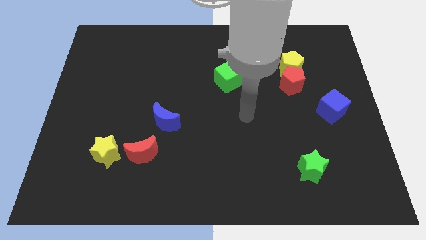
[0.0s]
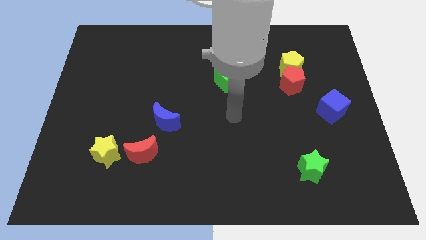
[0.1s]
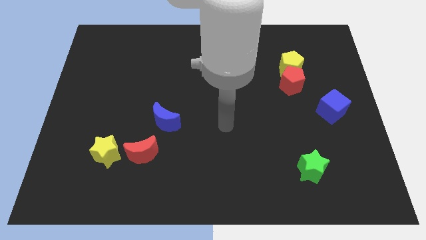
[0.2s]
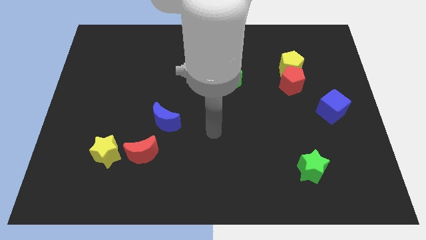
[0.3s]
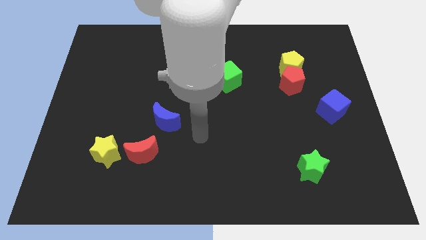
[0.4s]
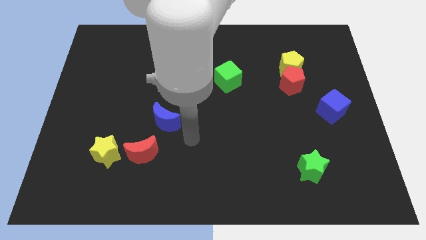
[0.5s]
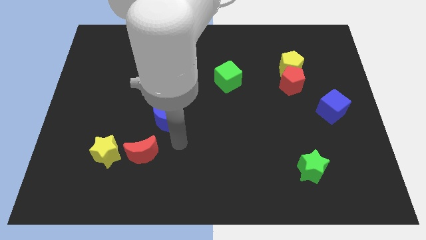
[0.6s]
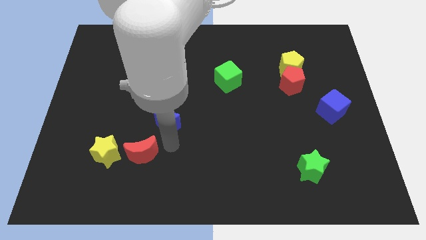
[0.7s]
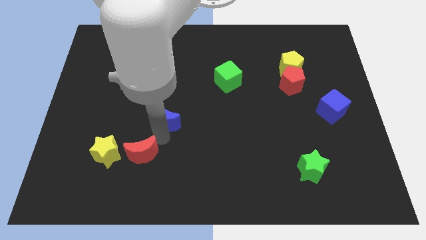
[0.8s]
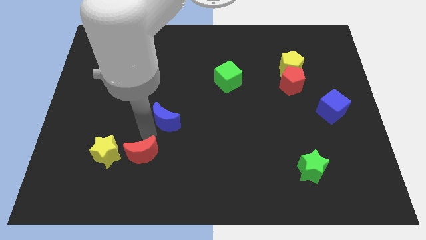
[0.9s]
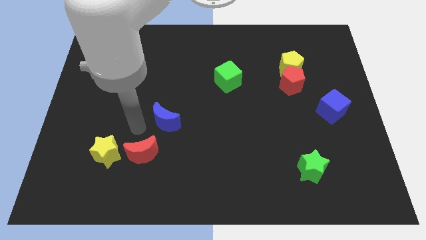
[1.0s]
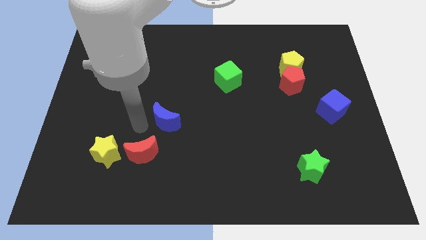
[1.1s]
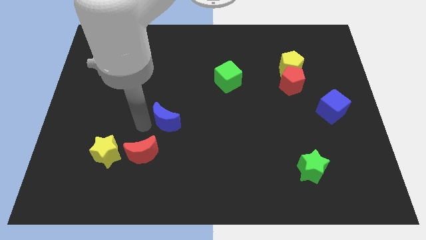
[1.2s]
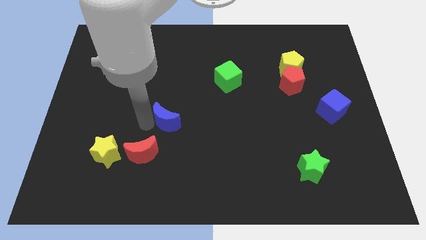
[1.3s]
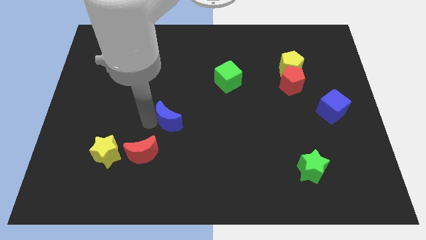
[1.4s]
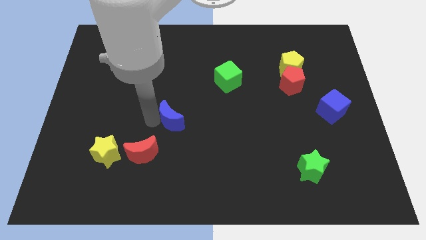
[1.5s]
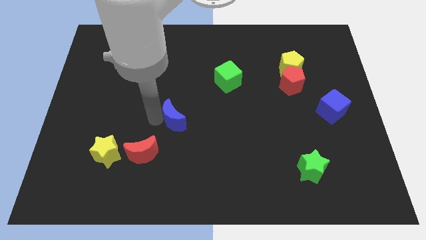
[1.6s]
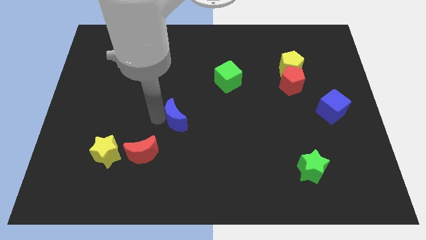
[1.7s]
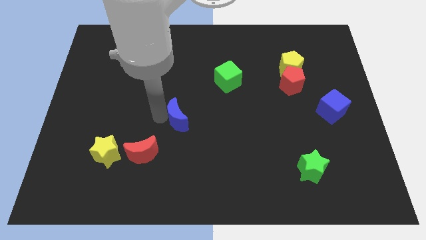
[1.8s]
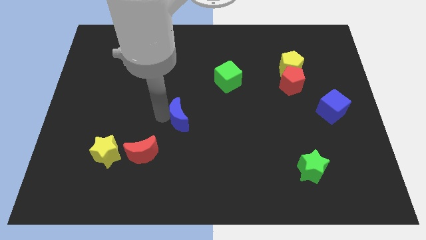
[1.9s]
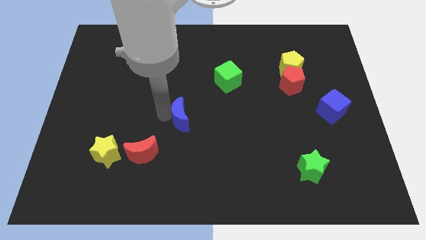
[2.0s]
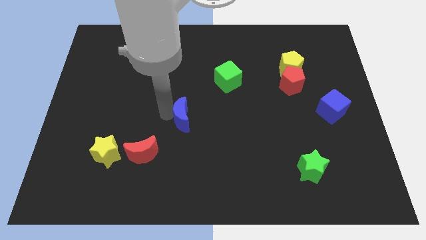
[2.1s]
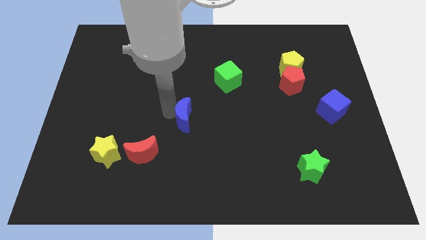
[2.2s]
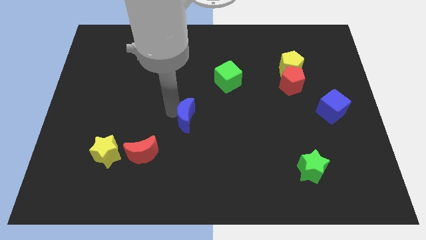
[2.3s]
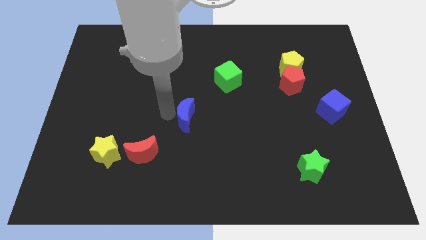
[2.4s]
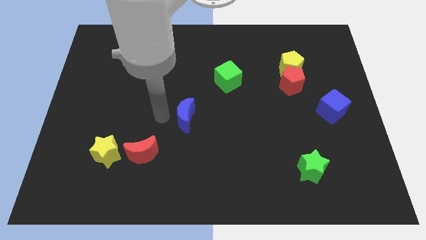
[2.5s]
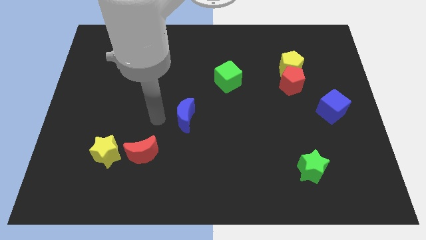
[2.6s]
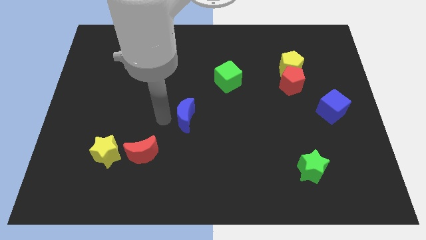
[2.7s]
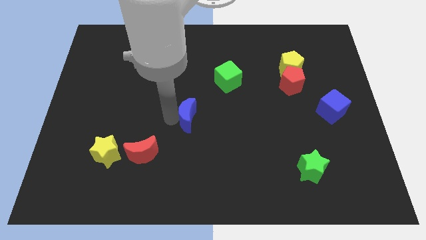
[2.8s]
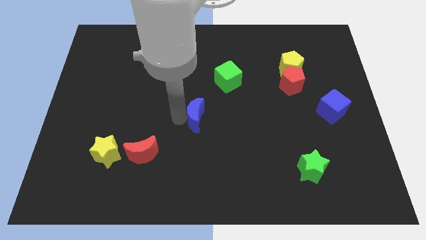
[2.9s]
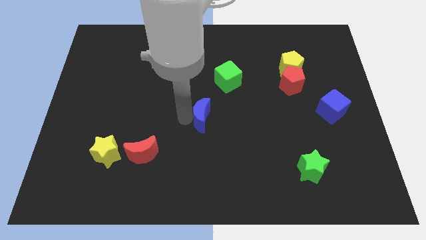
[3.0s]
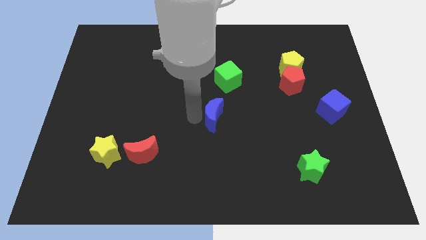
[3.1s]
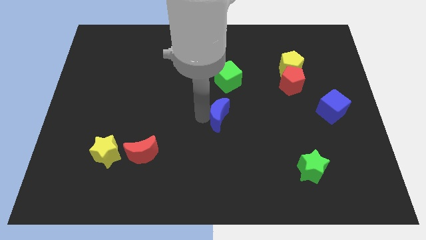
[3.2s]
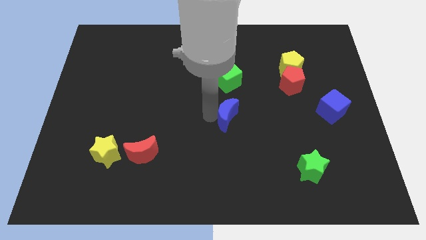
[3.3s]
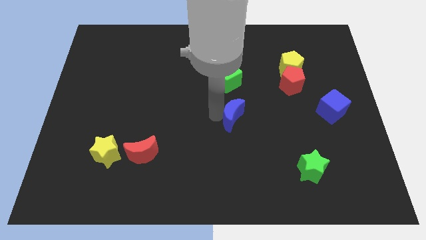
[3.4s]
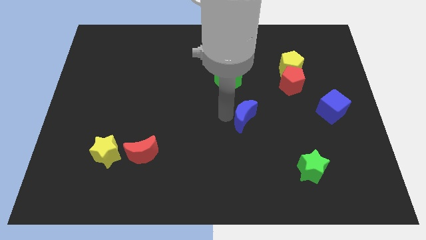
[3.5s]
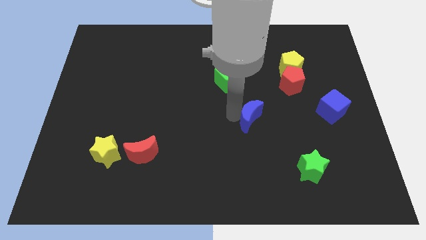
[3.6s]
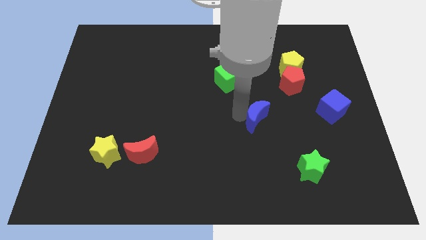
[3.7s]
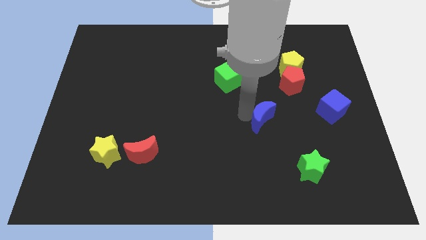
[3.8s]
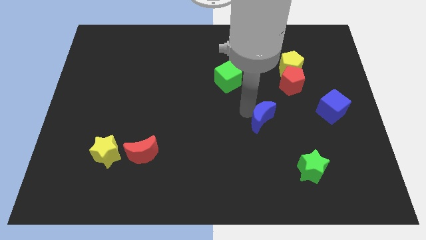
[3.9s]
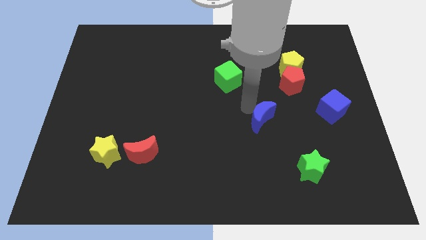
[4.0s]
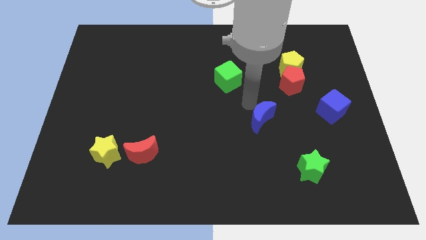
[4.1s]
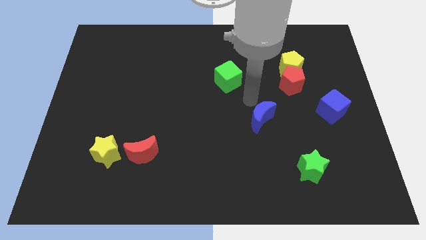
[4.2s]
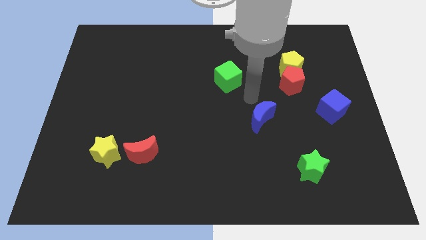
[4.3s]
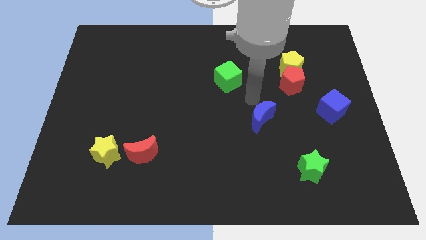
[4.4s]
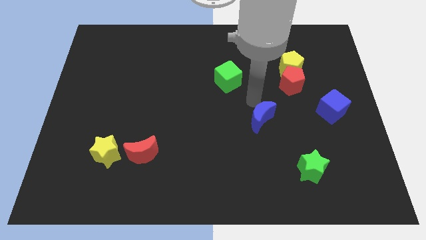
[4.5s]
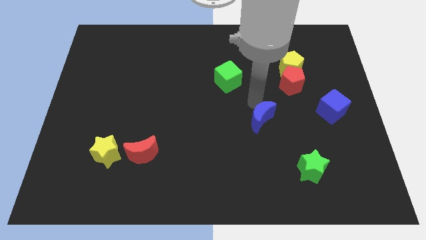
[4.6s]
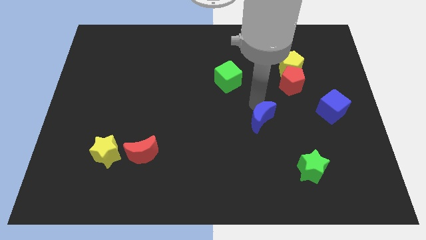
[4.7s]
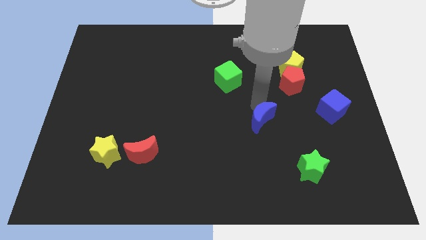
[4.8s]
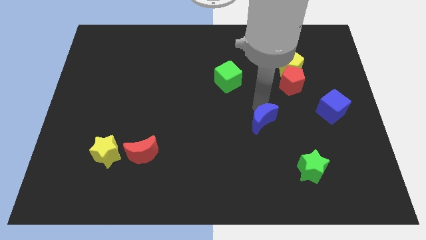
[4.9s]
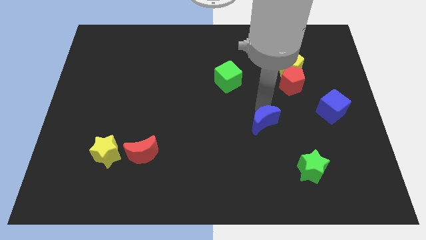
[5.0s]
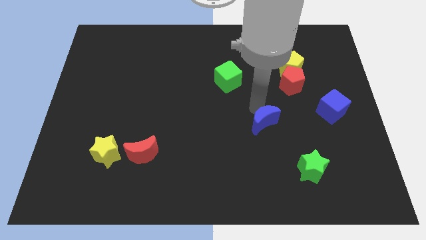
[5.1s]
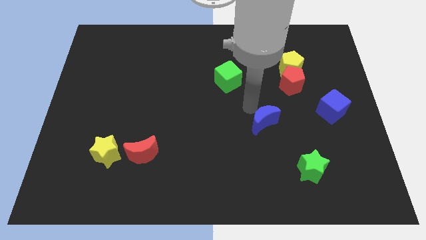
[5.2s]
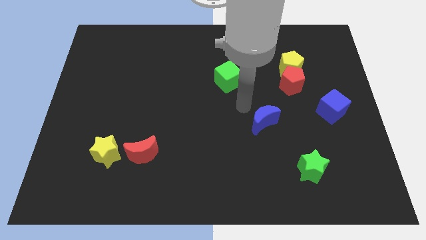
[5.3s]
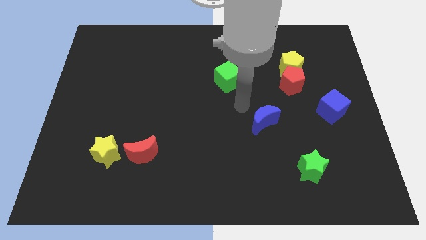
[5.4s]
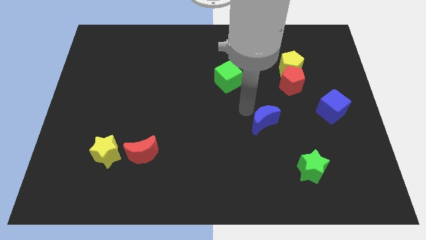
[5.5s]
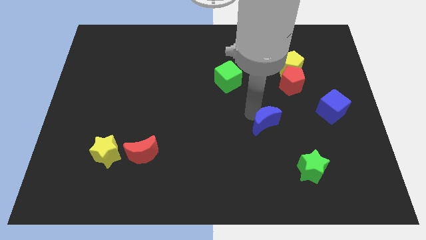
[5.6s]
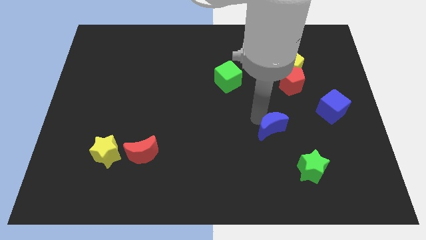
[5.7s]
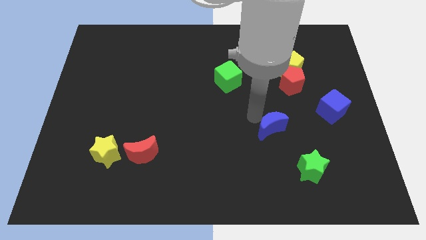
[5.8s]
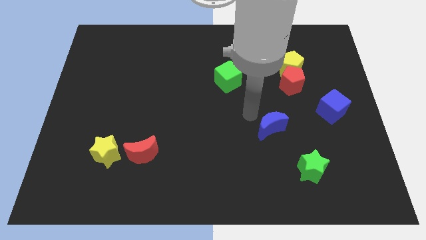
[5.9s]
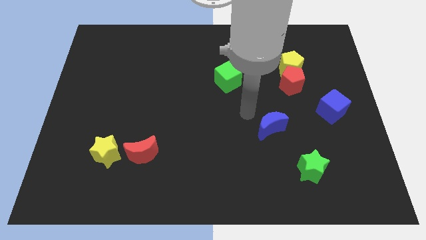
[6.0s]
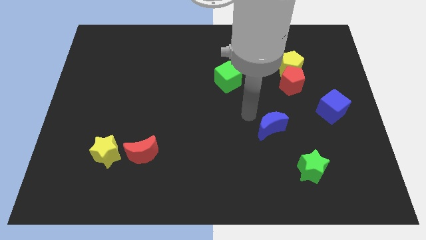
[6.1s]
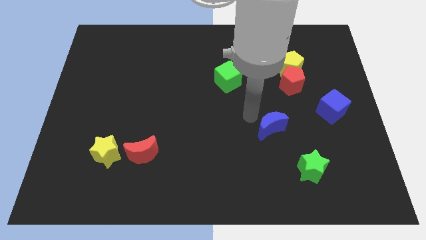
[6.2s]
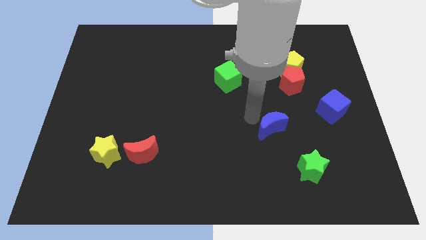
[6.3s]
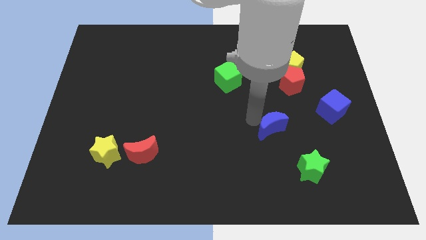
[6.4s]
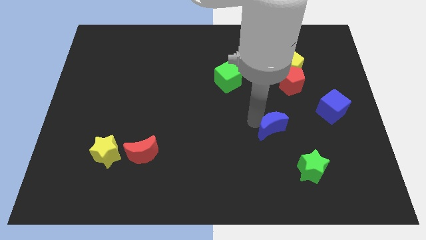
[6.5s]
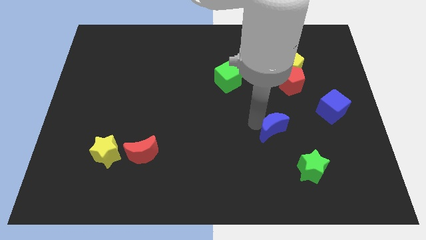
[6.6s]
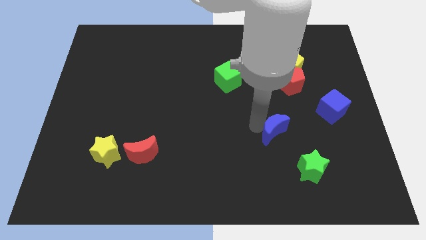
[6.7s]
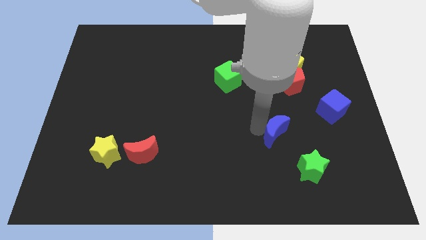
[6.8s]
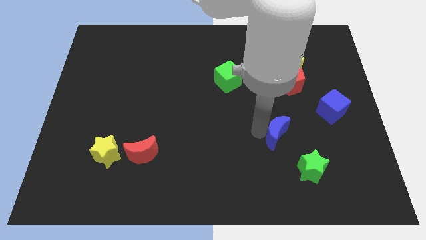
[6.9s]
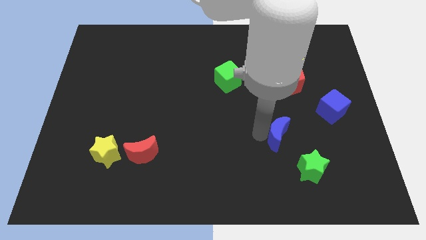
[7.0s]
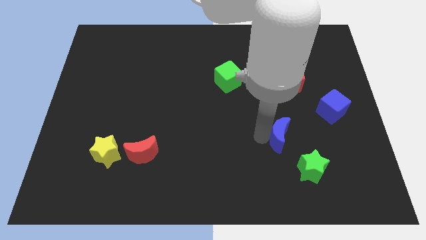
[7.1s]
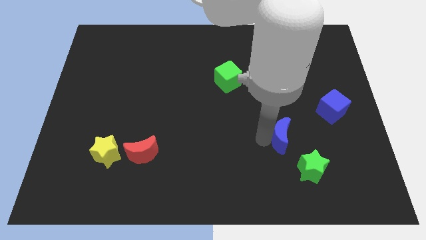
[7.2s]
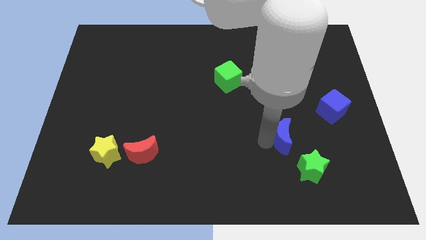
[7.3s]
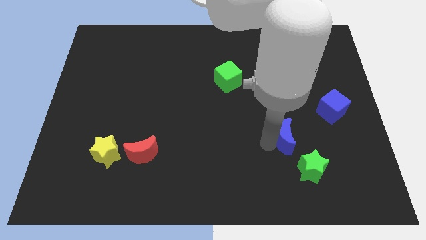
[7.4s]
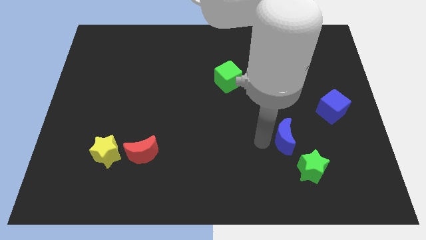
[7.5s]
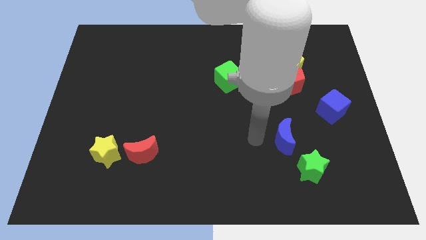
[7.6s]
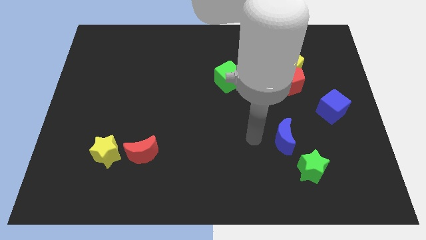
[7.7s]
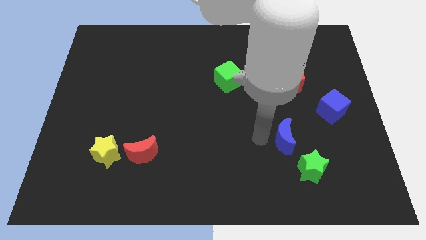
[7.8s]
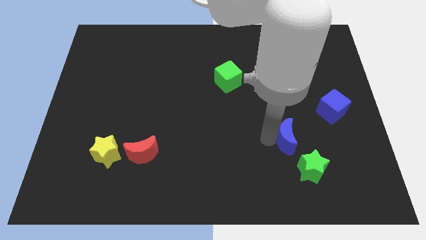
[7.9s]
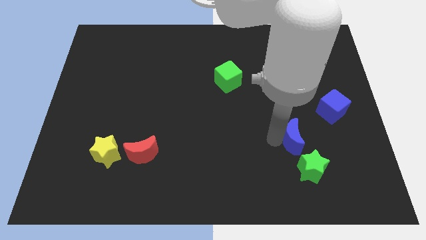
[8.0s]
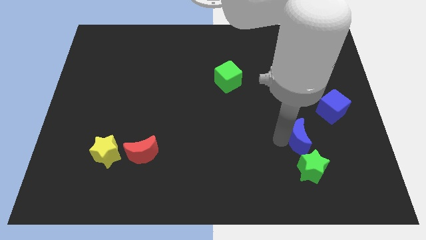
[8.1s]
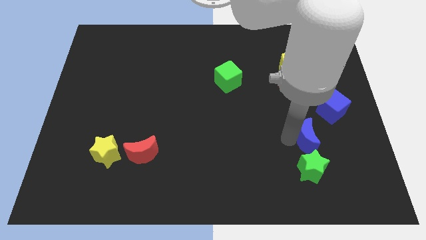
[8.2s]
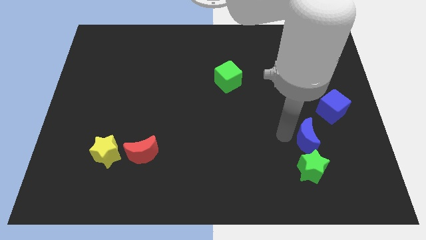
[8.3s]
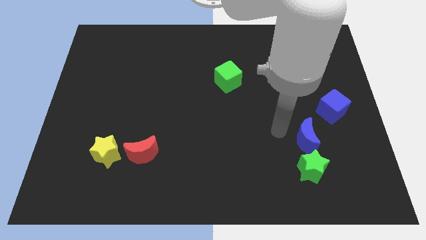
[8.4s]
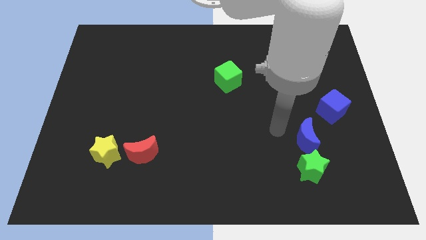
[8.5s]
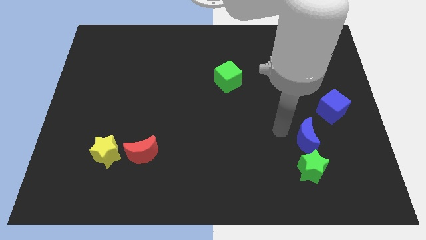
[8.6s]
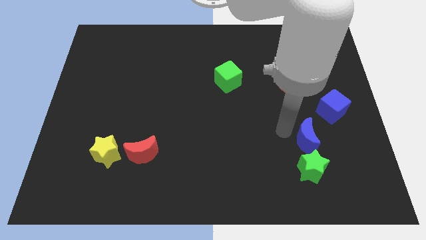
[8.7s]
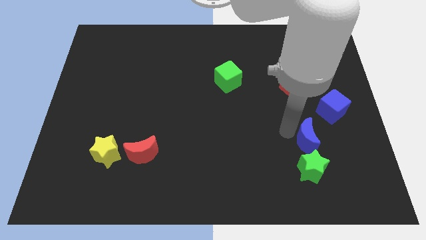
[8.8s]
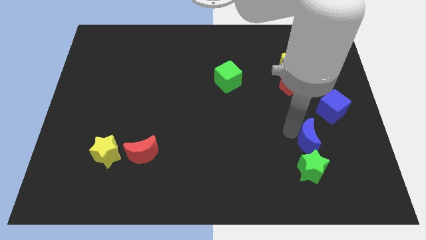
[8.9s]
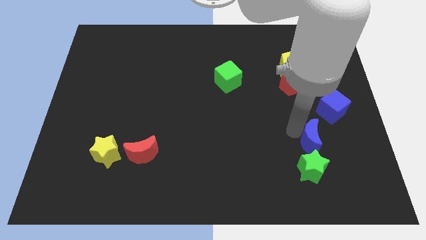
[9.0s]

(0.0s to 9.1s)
move the blue moon to the top right side of the green star
